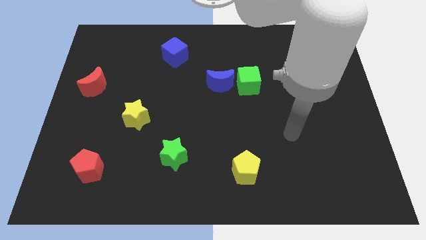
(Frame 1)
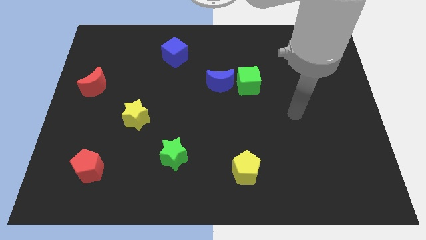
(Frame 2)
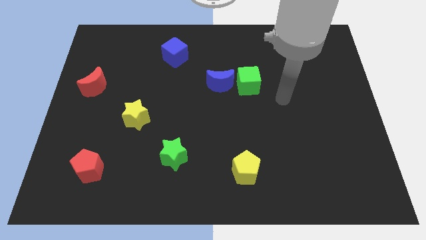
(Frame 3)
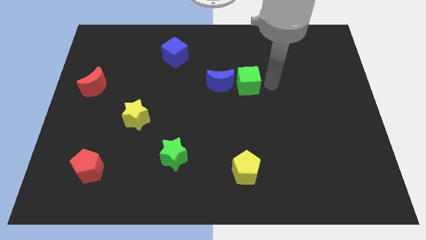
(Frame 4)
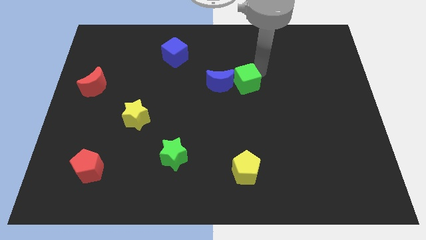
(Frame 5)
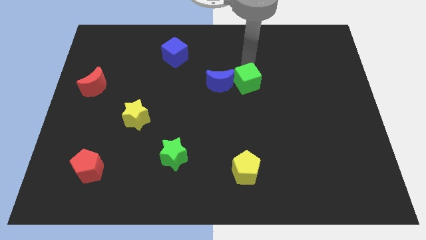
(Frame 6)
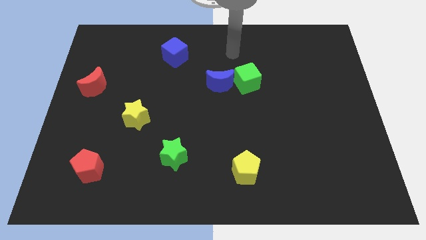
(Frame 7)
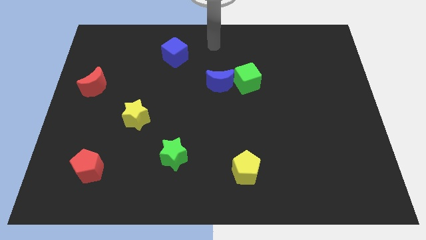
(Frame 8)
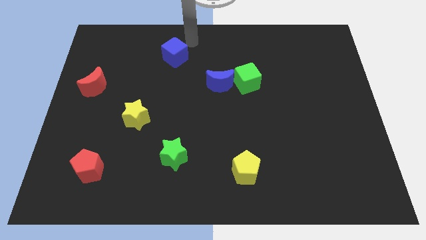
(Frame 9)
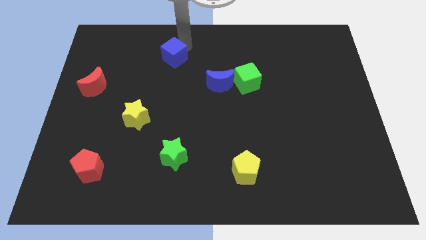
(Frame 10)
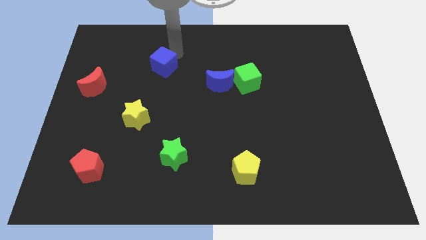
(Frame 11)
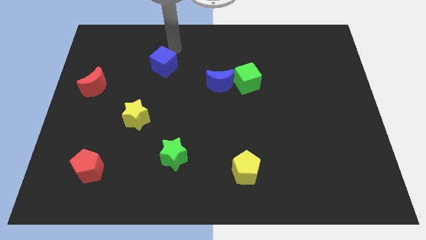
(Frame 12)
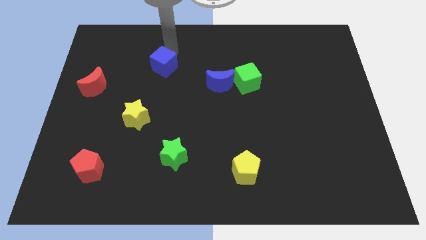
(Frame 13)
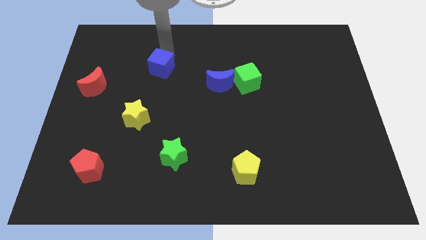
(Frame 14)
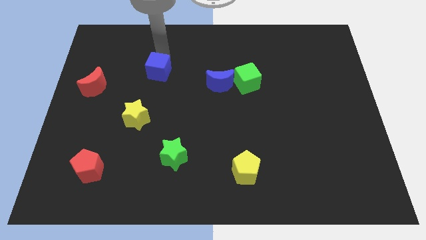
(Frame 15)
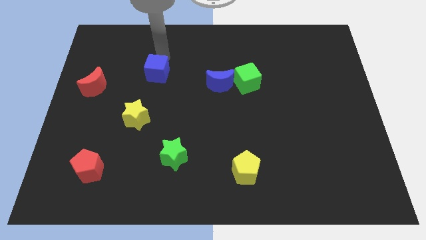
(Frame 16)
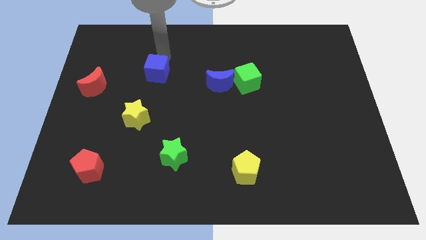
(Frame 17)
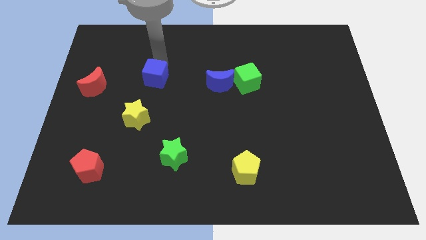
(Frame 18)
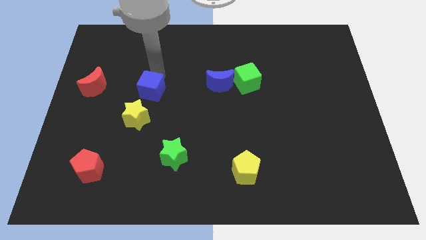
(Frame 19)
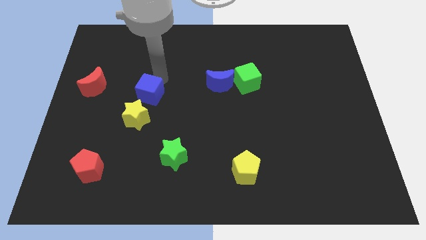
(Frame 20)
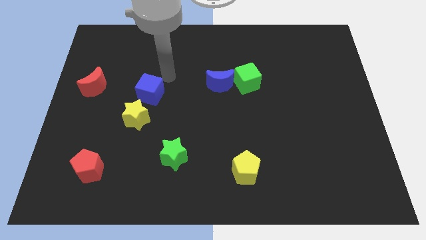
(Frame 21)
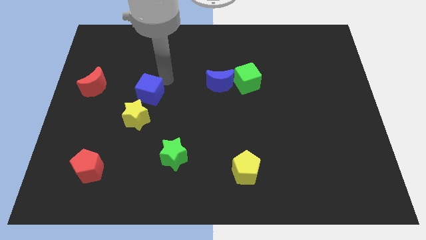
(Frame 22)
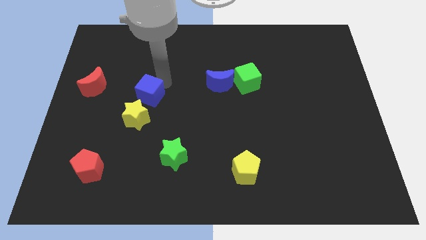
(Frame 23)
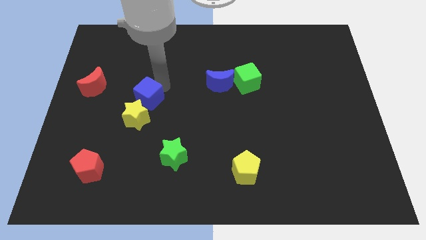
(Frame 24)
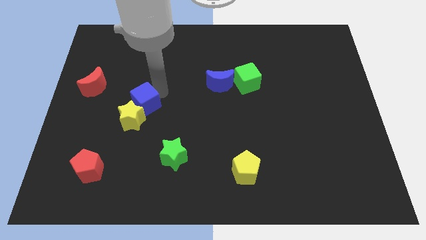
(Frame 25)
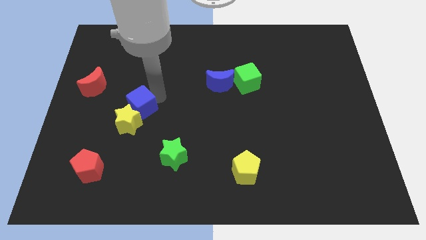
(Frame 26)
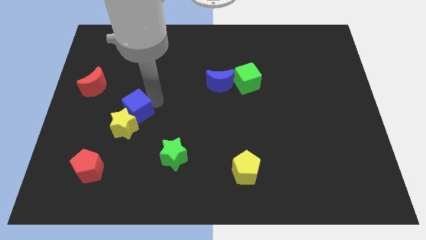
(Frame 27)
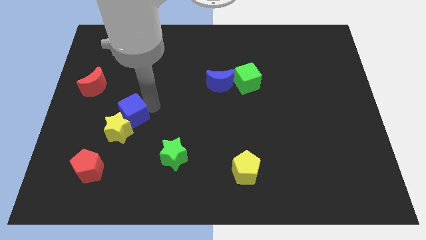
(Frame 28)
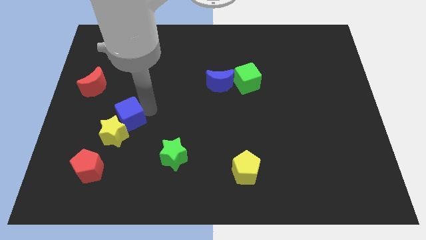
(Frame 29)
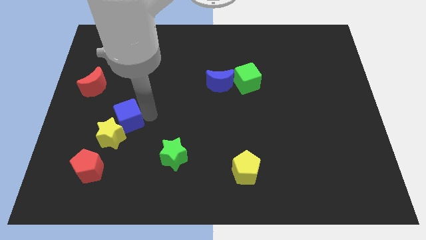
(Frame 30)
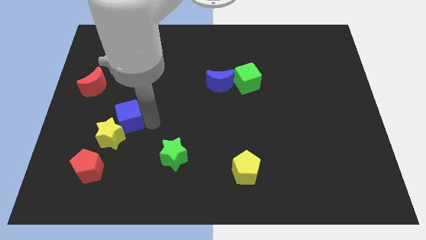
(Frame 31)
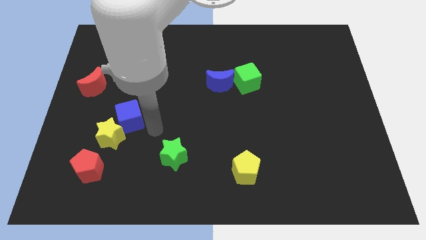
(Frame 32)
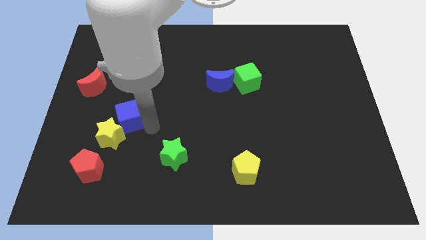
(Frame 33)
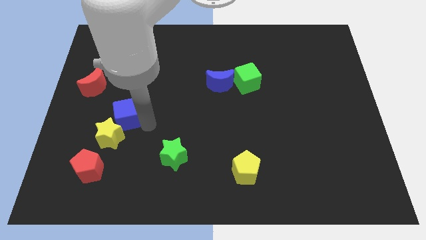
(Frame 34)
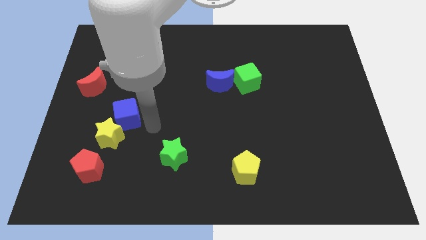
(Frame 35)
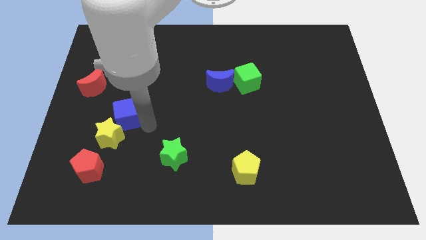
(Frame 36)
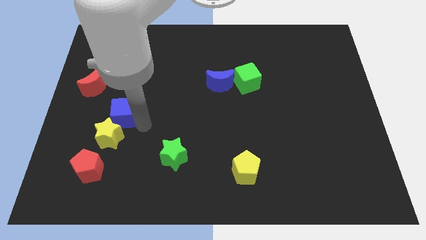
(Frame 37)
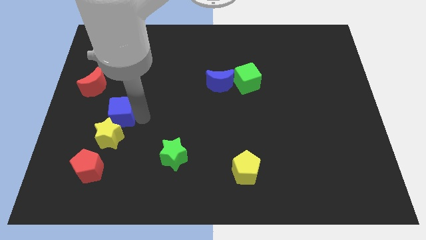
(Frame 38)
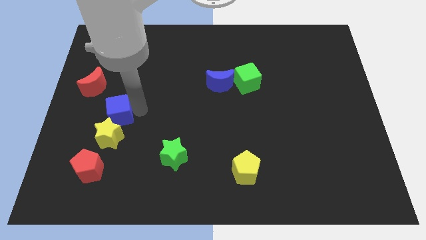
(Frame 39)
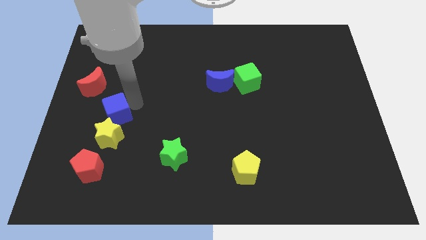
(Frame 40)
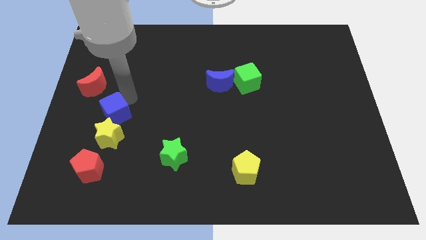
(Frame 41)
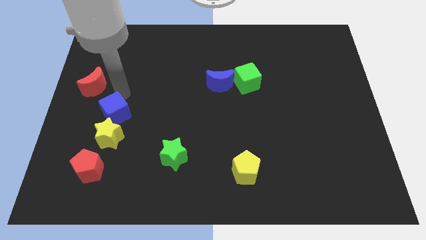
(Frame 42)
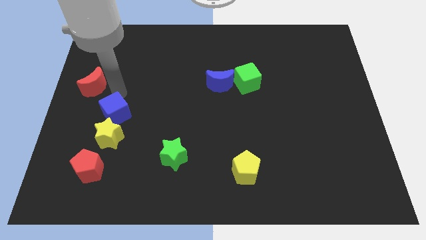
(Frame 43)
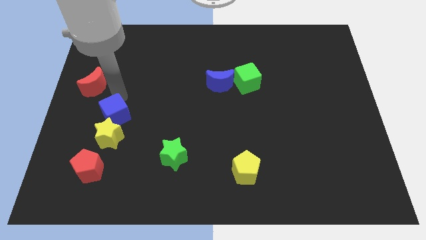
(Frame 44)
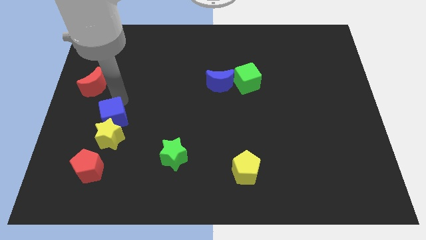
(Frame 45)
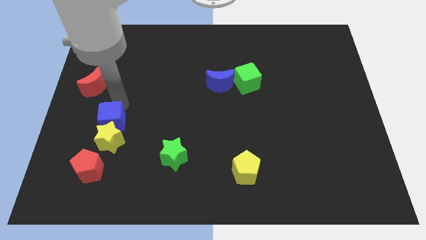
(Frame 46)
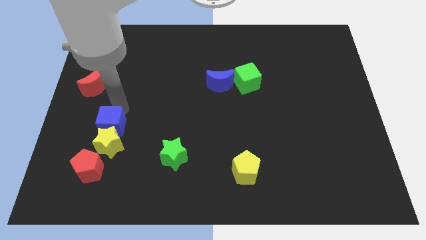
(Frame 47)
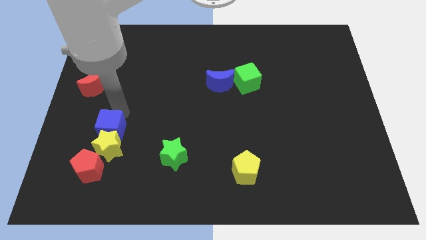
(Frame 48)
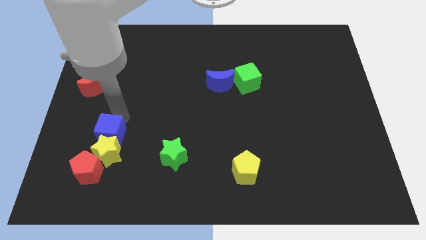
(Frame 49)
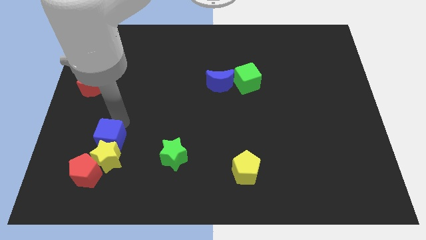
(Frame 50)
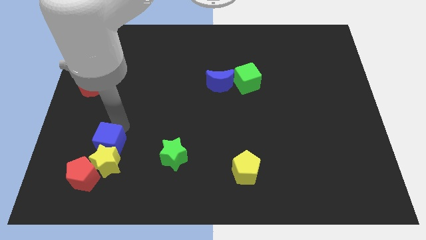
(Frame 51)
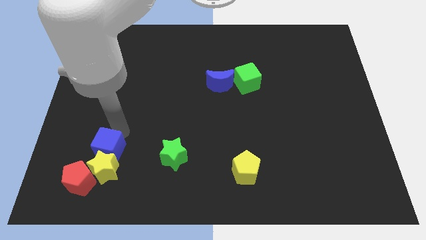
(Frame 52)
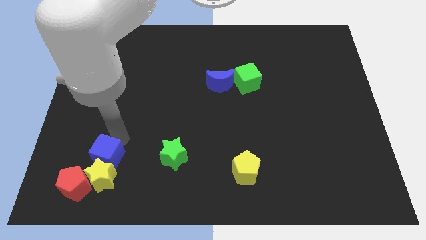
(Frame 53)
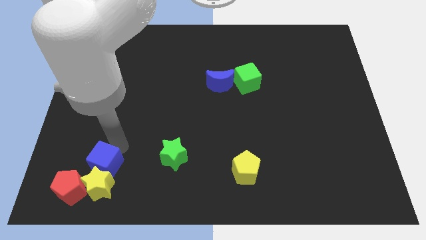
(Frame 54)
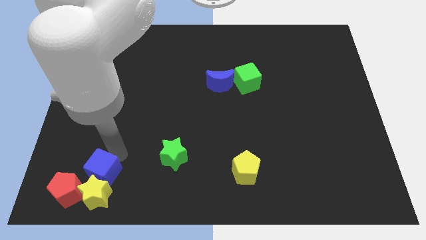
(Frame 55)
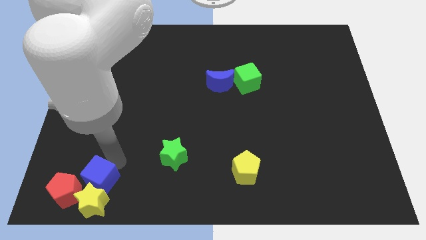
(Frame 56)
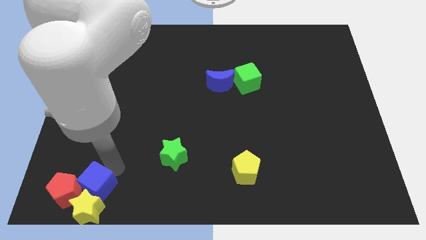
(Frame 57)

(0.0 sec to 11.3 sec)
slide the blue cube next to the red pentagon
